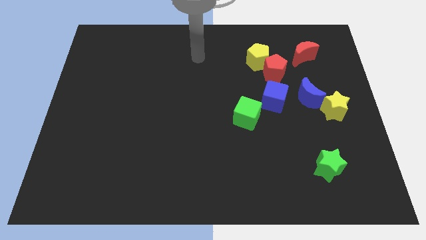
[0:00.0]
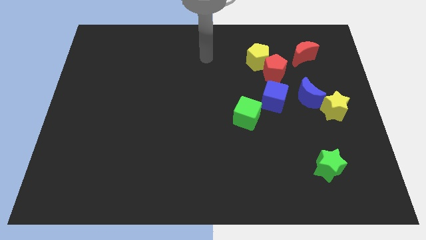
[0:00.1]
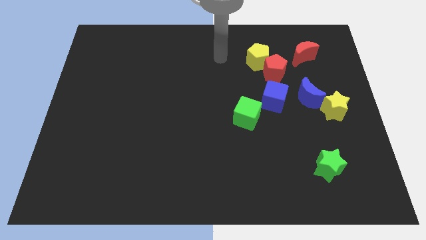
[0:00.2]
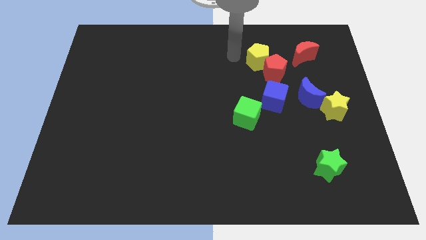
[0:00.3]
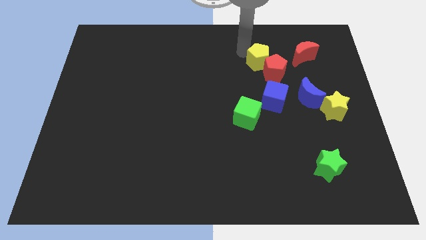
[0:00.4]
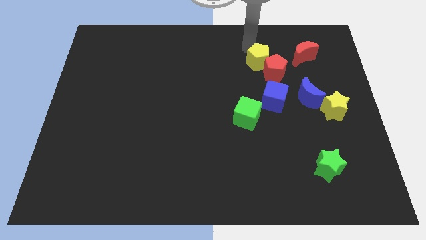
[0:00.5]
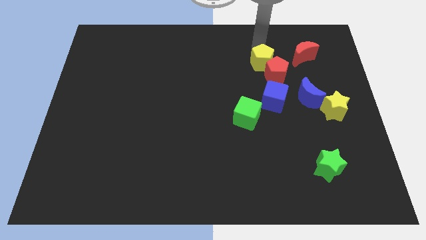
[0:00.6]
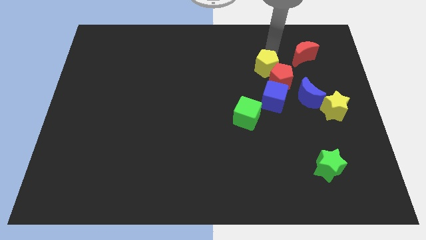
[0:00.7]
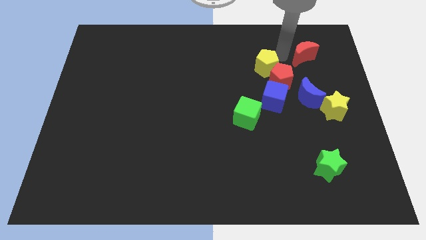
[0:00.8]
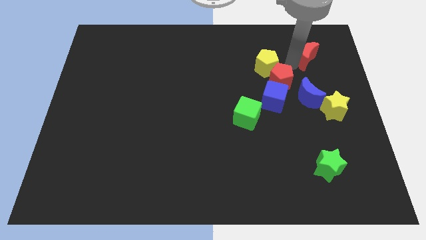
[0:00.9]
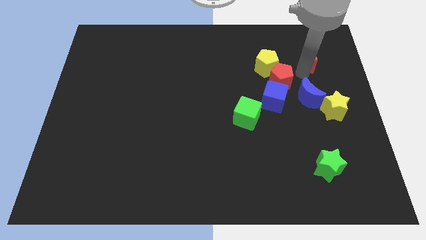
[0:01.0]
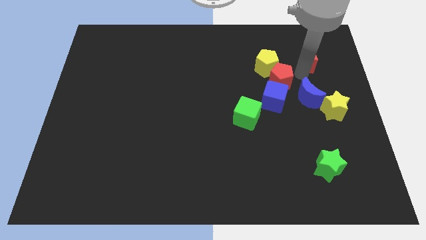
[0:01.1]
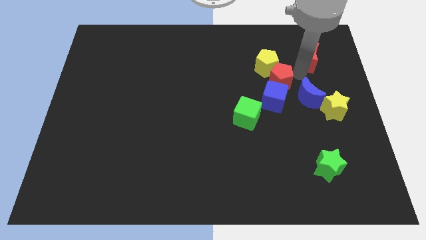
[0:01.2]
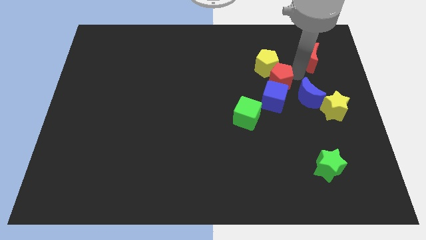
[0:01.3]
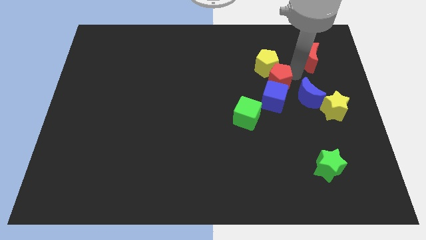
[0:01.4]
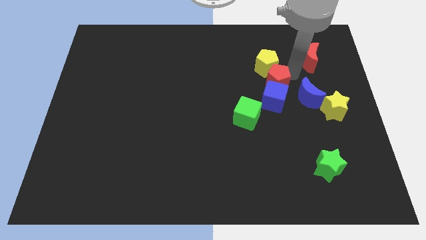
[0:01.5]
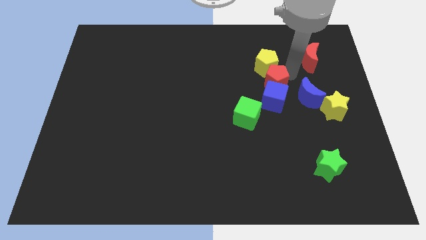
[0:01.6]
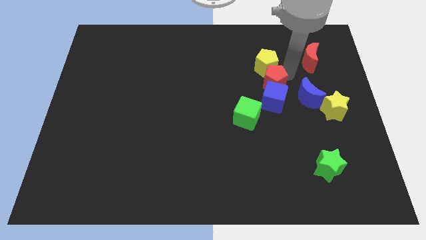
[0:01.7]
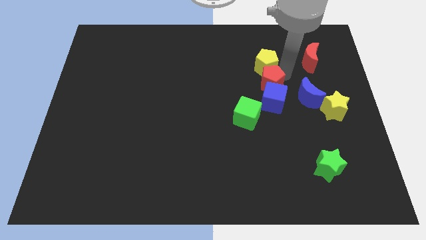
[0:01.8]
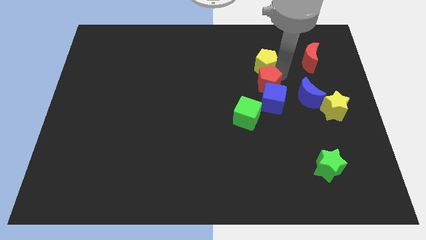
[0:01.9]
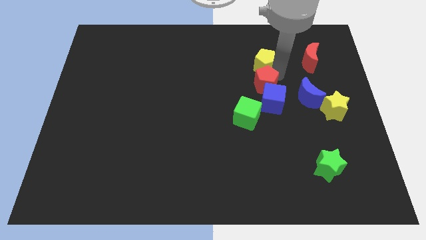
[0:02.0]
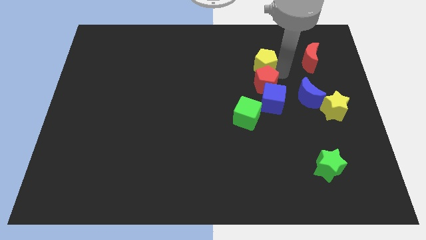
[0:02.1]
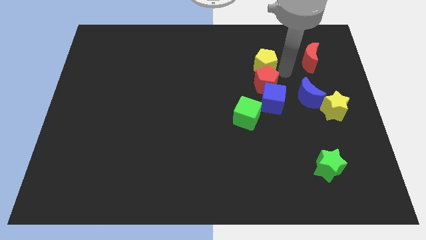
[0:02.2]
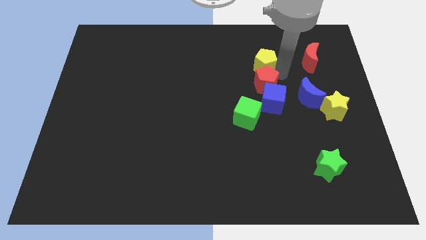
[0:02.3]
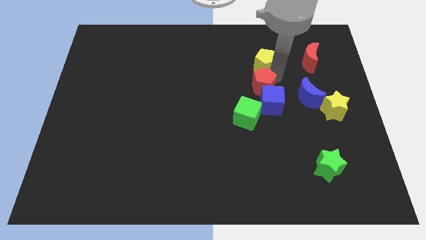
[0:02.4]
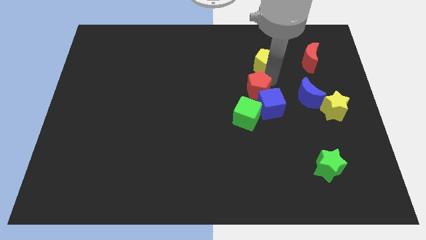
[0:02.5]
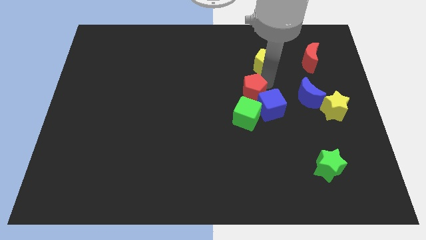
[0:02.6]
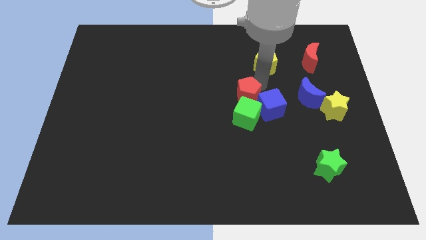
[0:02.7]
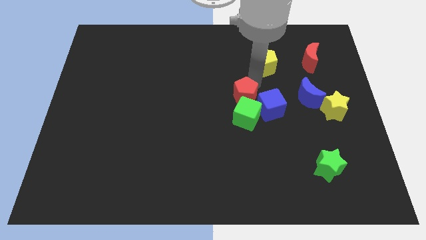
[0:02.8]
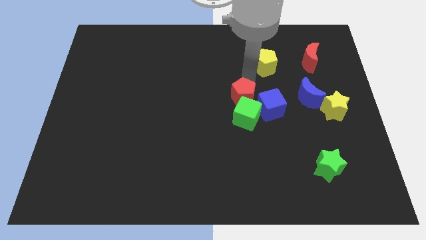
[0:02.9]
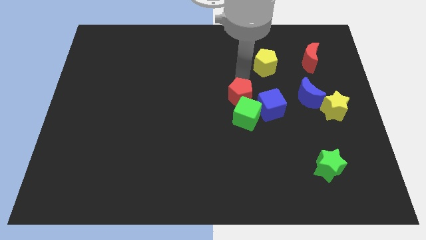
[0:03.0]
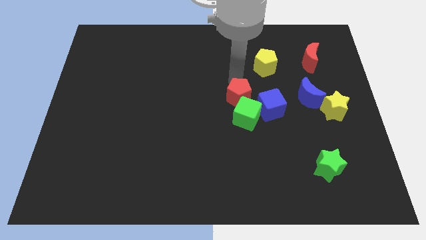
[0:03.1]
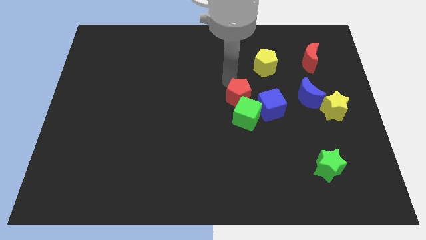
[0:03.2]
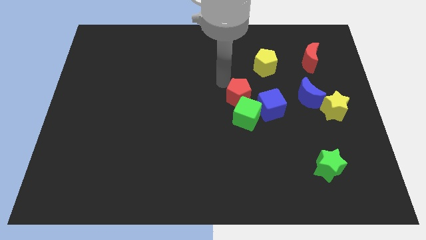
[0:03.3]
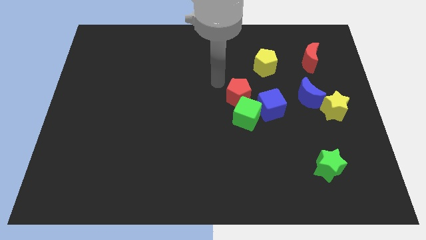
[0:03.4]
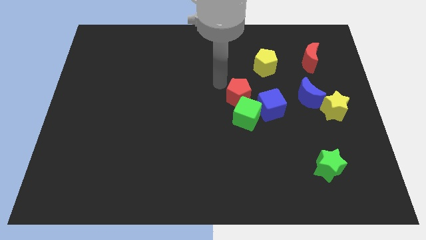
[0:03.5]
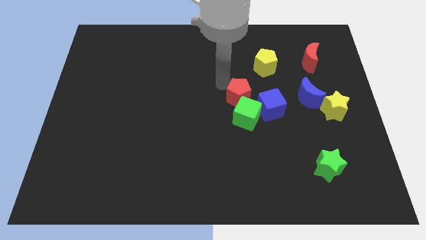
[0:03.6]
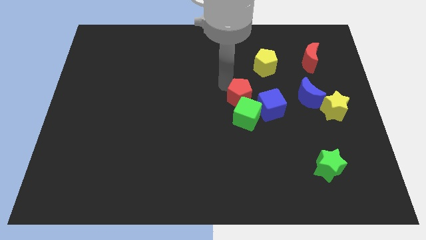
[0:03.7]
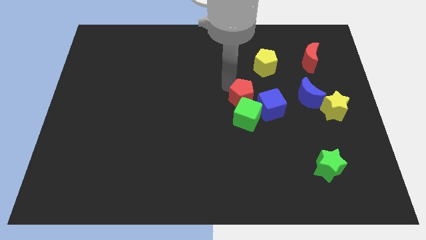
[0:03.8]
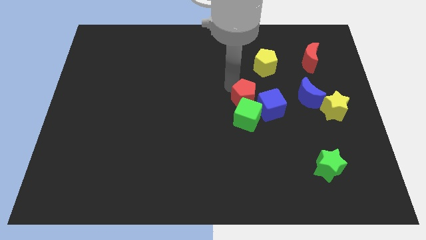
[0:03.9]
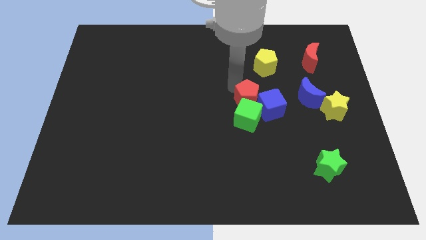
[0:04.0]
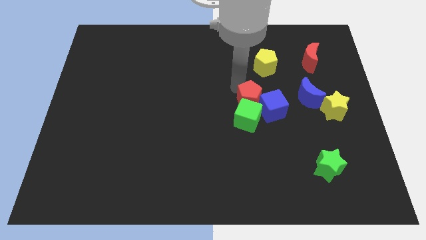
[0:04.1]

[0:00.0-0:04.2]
slide the red pentagon a bit down

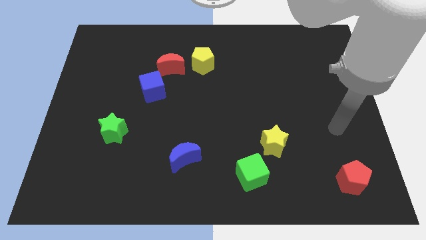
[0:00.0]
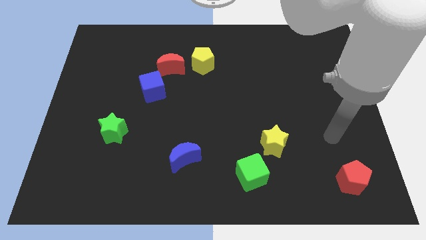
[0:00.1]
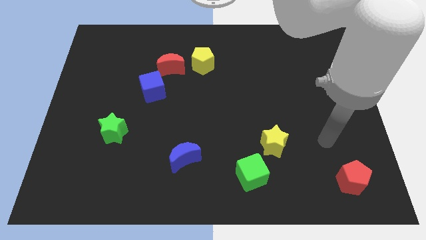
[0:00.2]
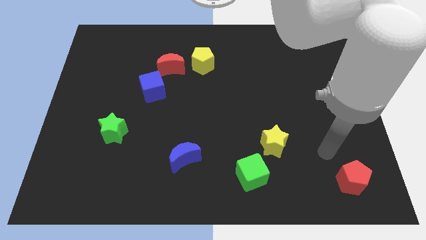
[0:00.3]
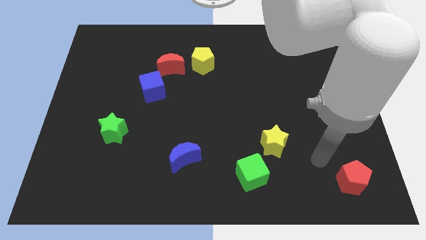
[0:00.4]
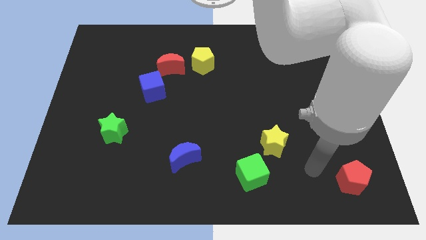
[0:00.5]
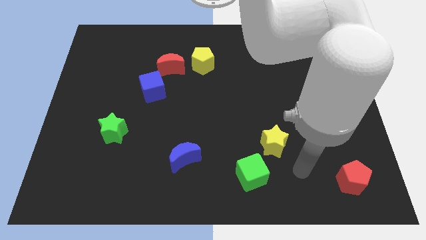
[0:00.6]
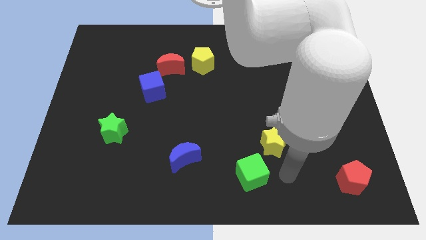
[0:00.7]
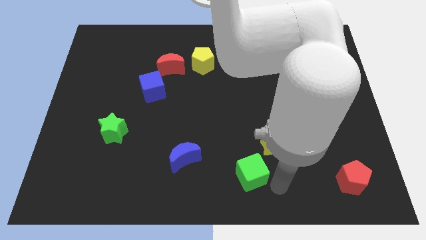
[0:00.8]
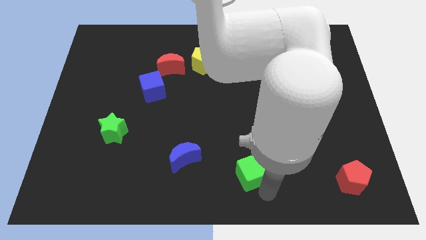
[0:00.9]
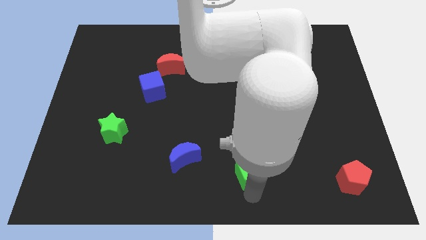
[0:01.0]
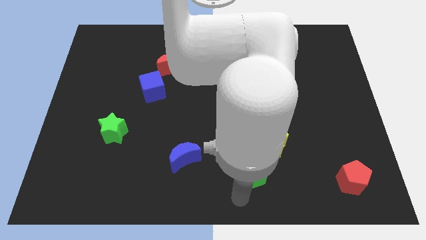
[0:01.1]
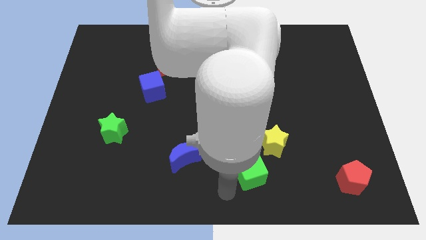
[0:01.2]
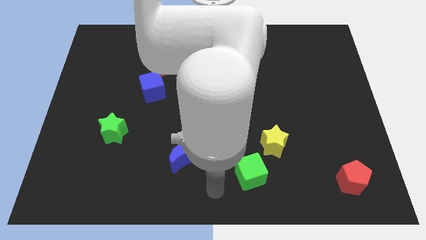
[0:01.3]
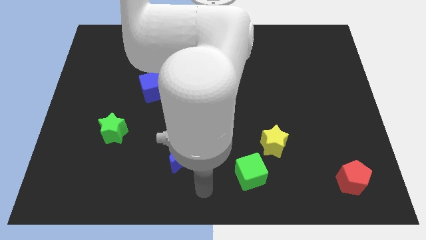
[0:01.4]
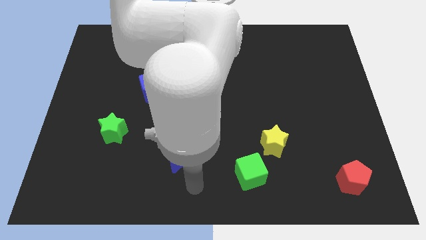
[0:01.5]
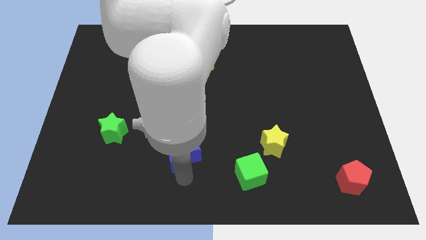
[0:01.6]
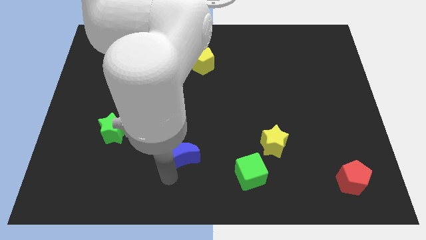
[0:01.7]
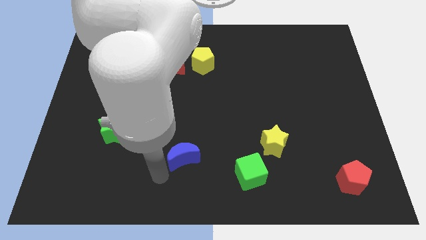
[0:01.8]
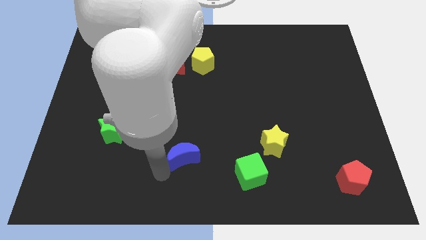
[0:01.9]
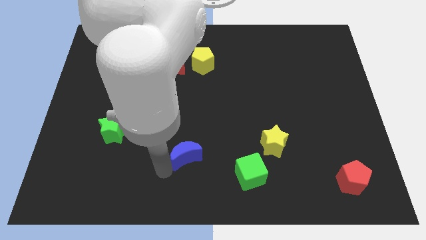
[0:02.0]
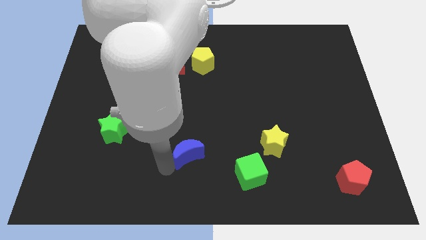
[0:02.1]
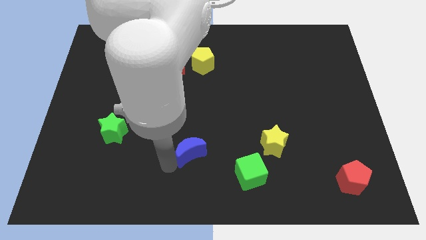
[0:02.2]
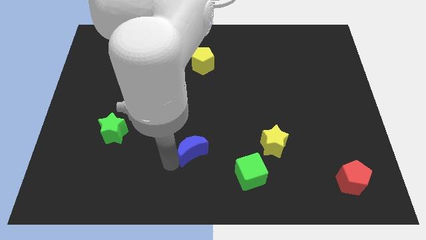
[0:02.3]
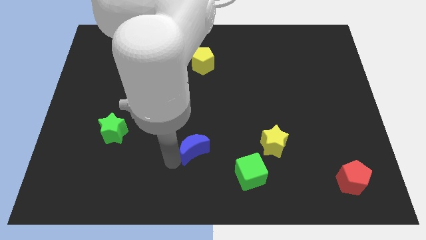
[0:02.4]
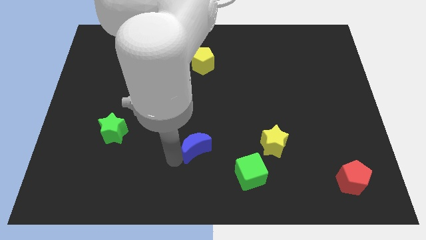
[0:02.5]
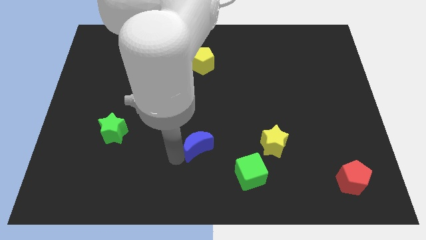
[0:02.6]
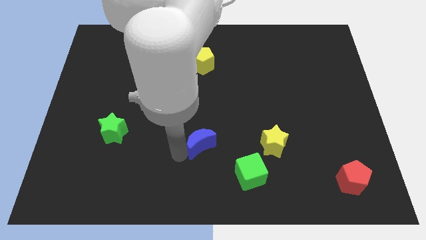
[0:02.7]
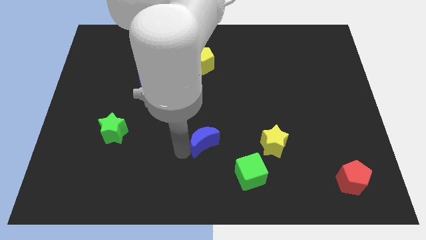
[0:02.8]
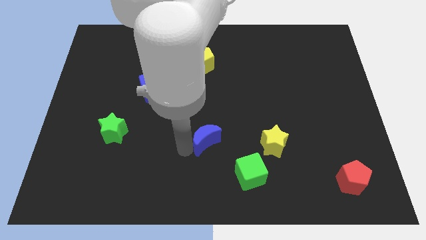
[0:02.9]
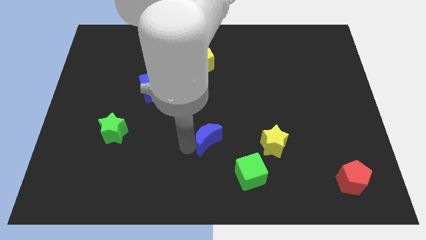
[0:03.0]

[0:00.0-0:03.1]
slide the blue moon diagonally upwards and to the right a little bit

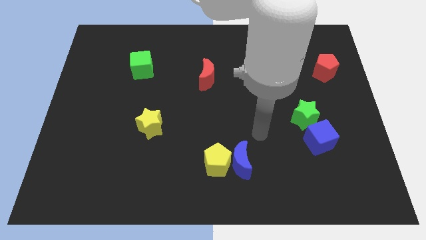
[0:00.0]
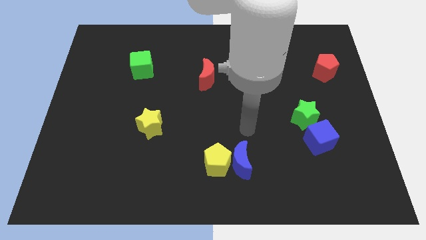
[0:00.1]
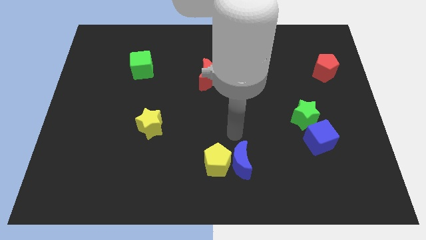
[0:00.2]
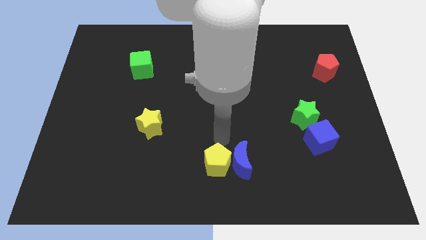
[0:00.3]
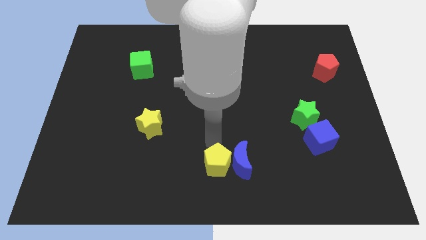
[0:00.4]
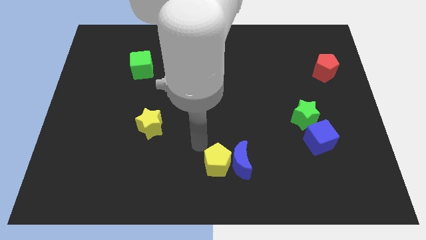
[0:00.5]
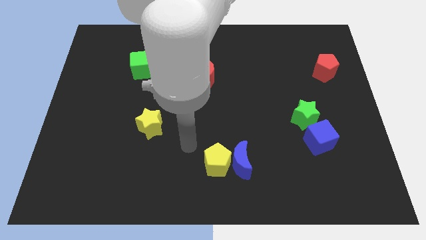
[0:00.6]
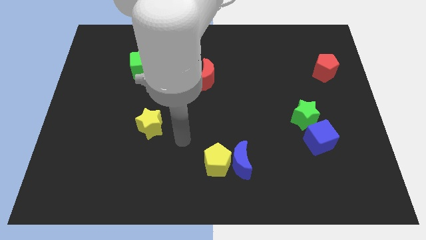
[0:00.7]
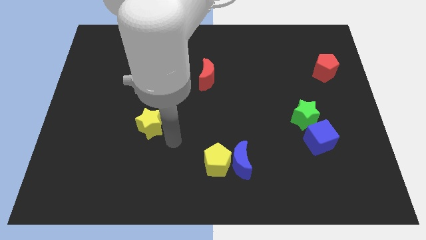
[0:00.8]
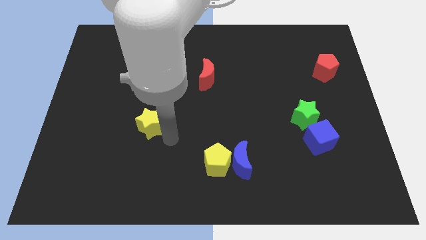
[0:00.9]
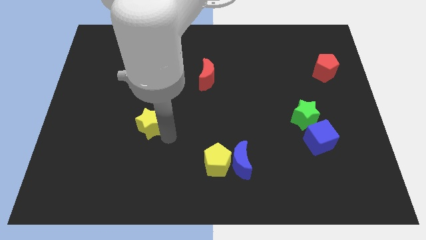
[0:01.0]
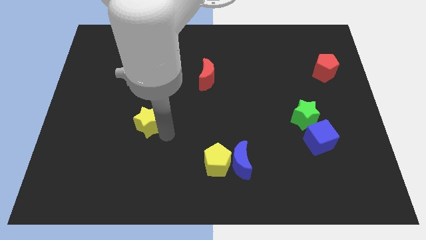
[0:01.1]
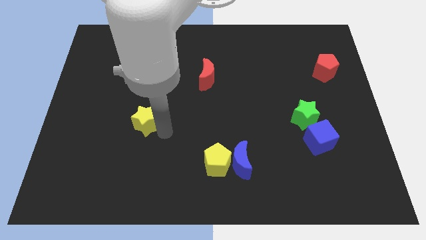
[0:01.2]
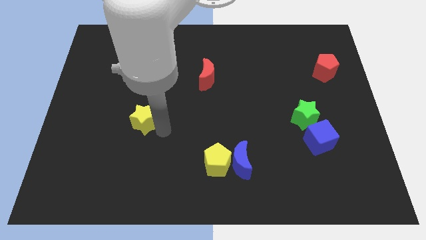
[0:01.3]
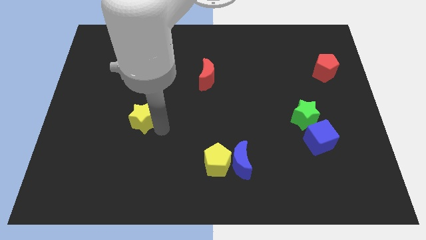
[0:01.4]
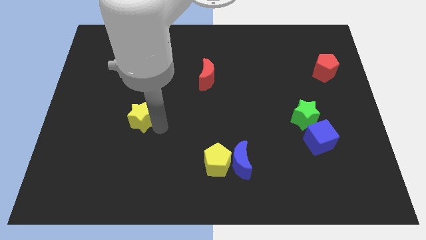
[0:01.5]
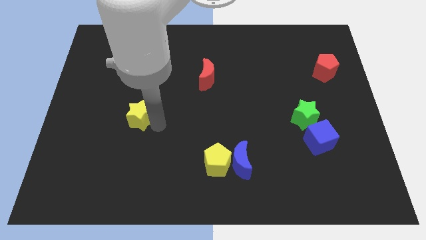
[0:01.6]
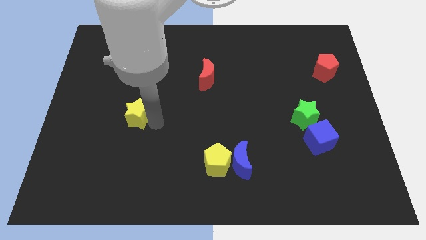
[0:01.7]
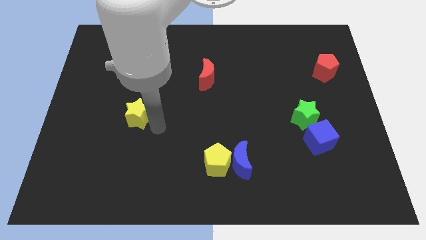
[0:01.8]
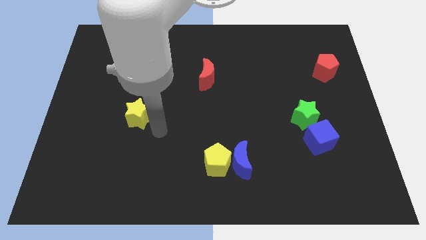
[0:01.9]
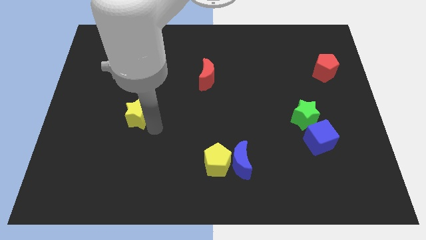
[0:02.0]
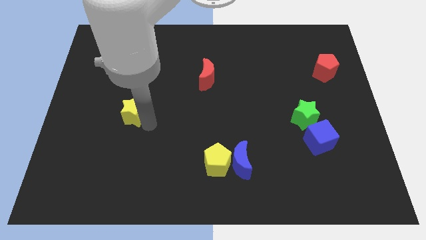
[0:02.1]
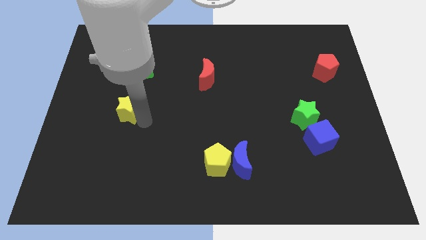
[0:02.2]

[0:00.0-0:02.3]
slightly move the yellow star up and to the left
